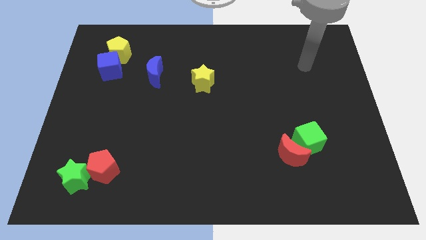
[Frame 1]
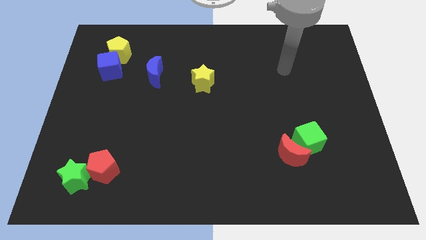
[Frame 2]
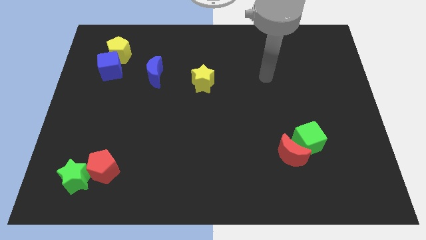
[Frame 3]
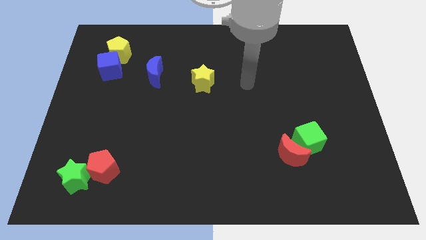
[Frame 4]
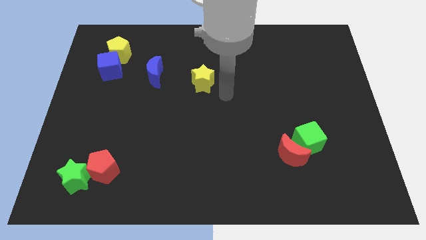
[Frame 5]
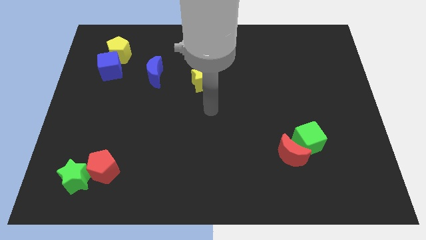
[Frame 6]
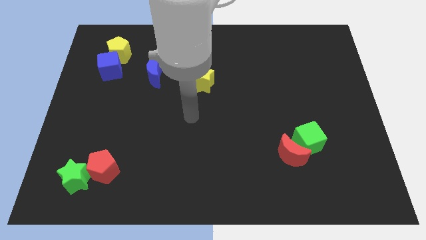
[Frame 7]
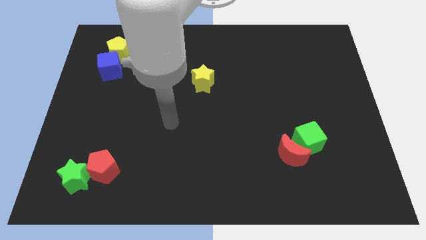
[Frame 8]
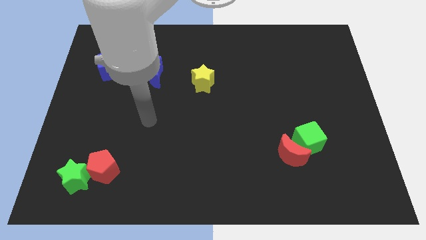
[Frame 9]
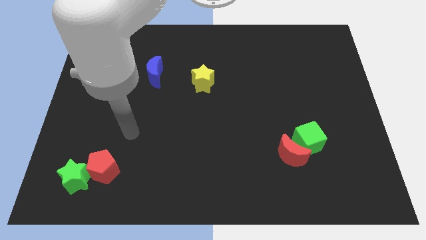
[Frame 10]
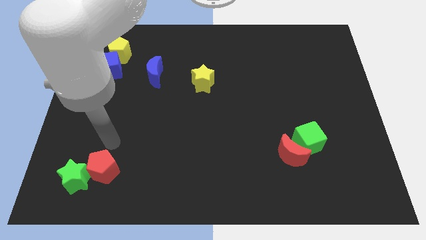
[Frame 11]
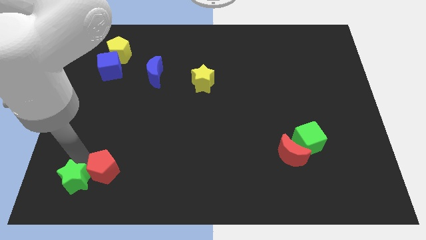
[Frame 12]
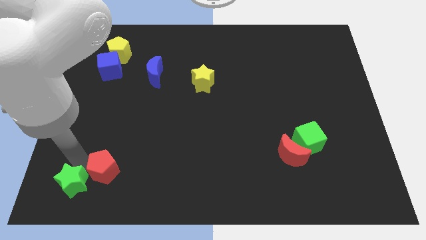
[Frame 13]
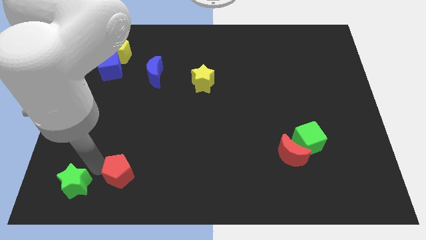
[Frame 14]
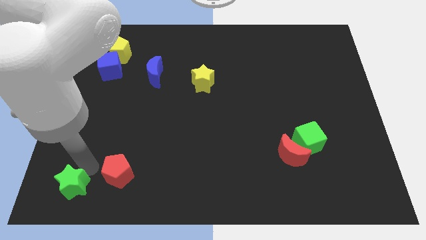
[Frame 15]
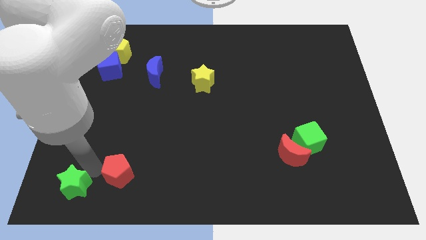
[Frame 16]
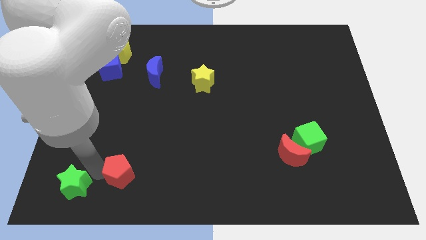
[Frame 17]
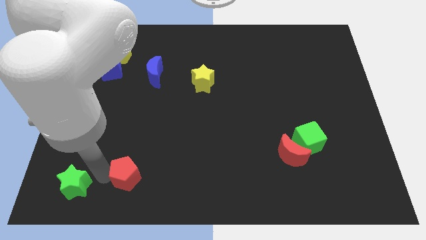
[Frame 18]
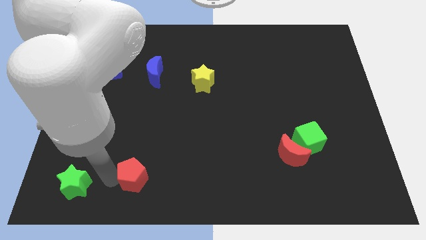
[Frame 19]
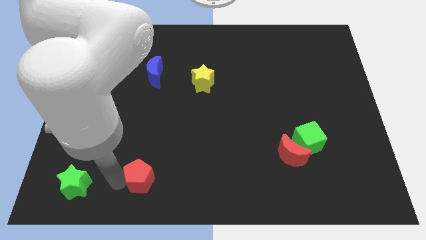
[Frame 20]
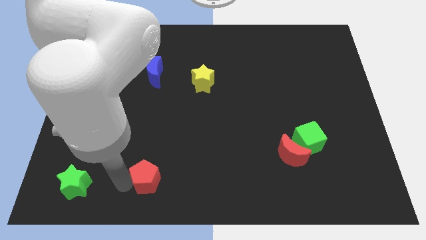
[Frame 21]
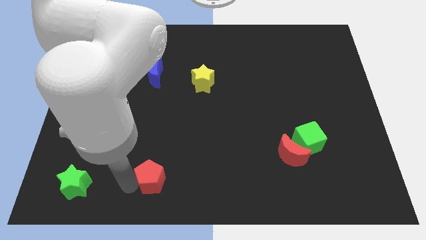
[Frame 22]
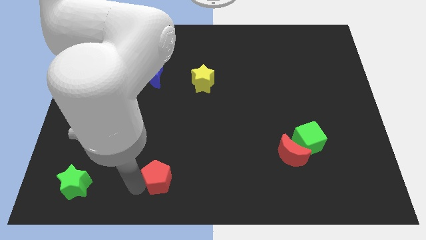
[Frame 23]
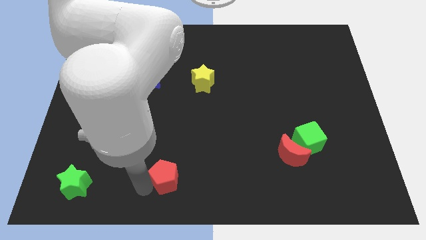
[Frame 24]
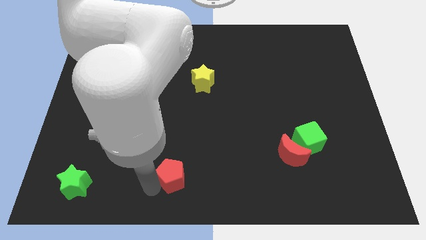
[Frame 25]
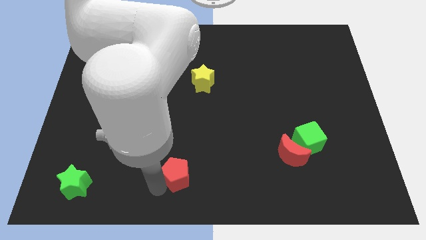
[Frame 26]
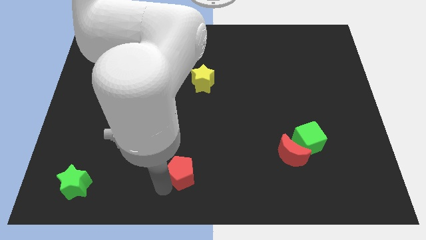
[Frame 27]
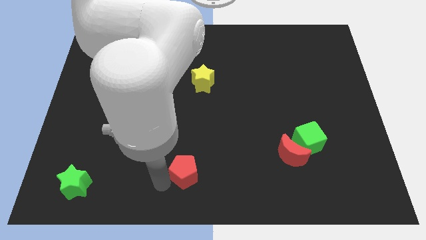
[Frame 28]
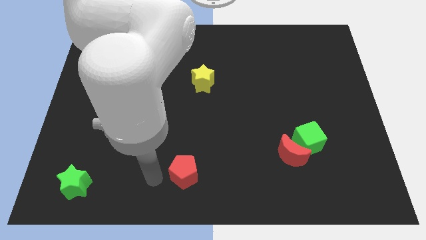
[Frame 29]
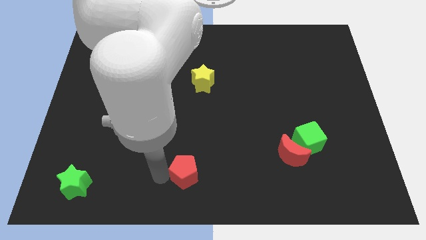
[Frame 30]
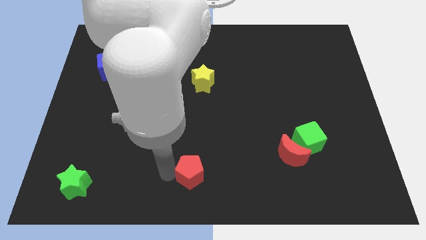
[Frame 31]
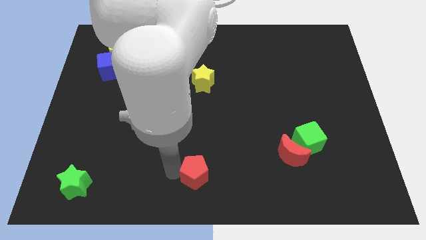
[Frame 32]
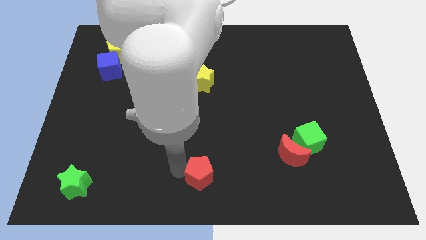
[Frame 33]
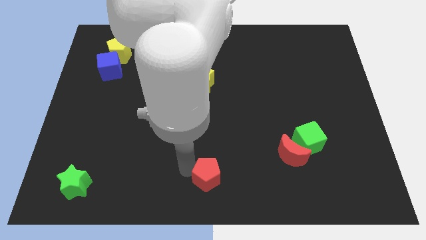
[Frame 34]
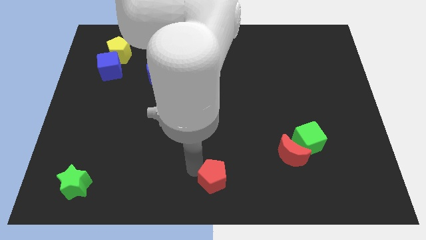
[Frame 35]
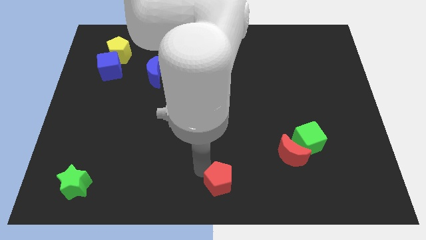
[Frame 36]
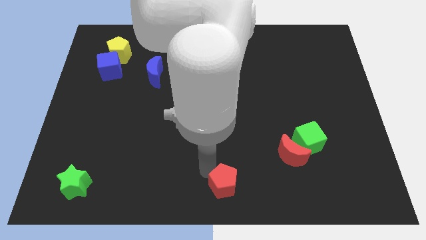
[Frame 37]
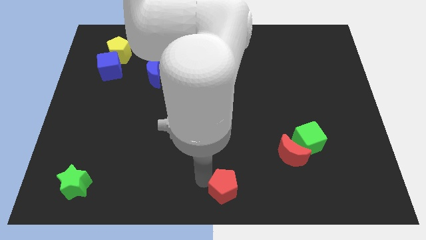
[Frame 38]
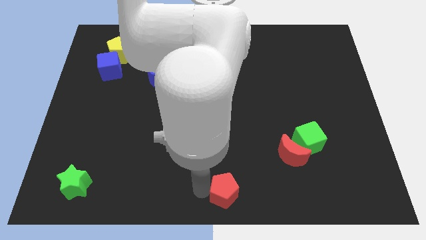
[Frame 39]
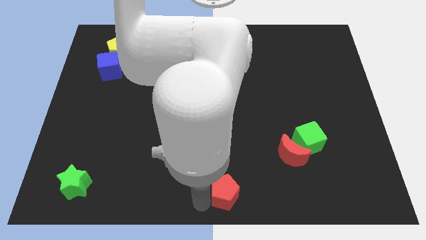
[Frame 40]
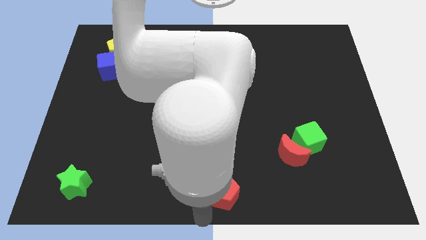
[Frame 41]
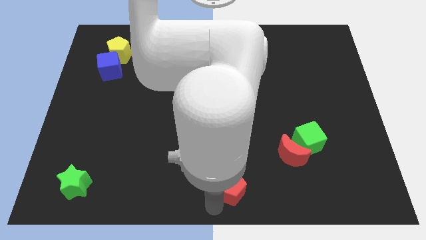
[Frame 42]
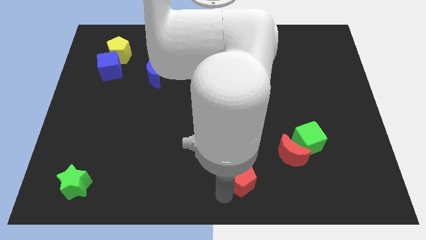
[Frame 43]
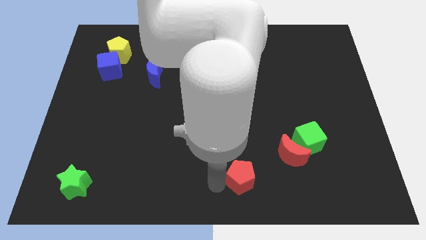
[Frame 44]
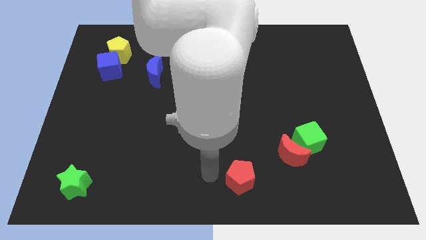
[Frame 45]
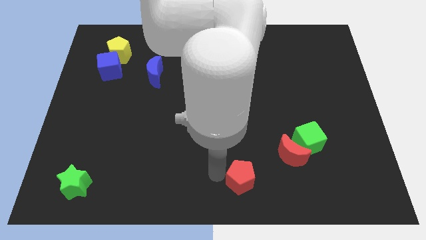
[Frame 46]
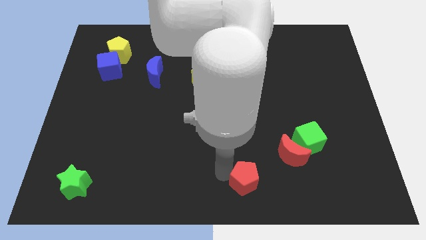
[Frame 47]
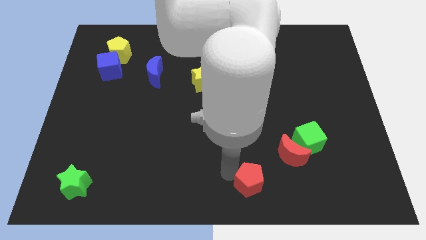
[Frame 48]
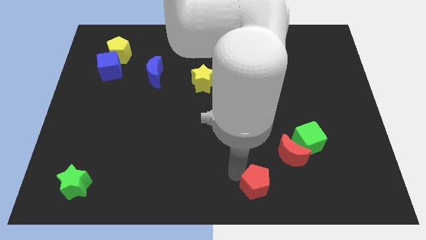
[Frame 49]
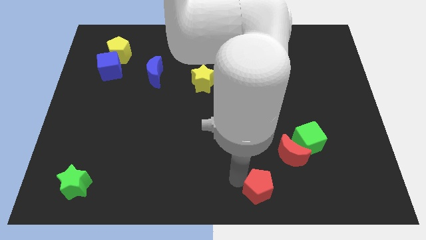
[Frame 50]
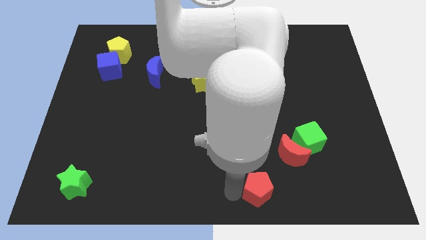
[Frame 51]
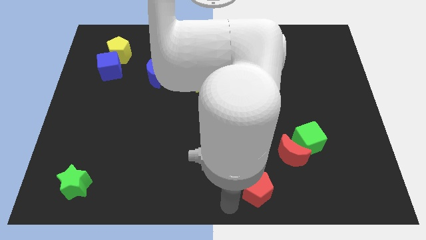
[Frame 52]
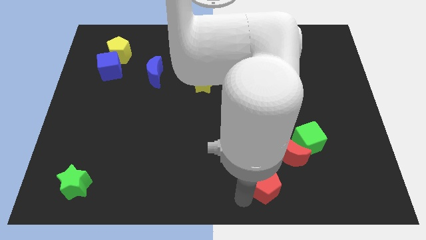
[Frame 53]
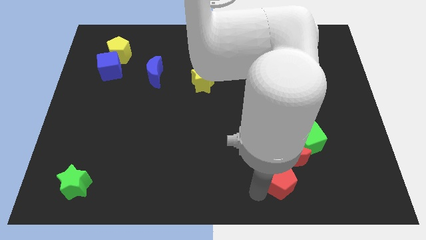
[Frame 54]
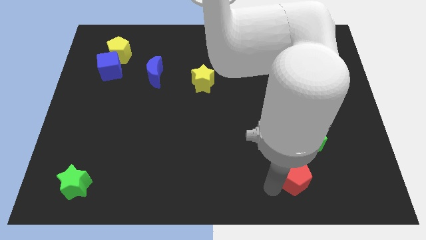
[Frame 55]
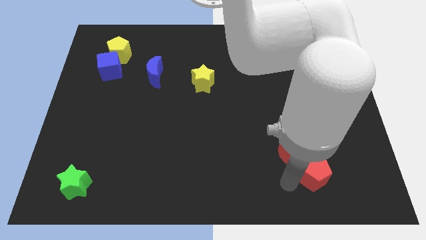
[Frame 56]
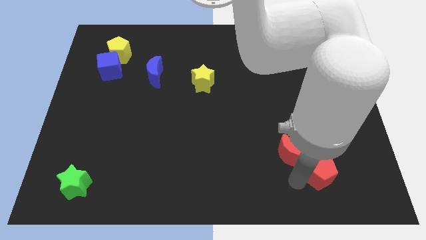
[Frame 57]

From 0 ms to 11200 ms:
push the red pentagon to the bottom right of the green cube

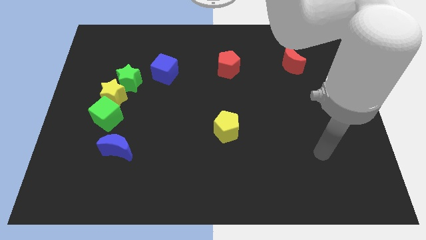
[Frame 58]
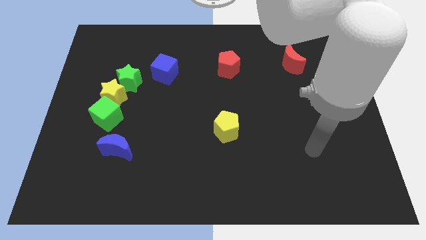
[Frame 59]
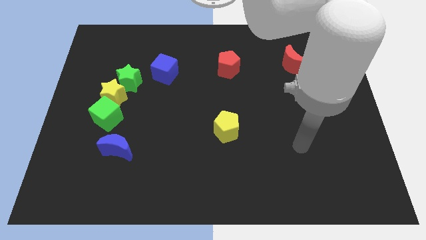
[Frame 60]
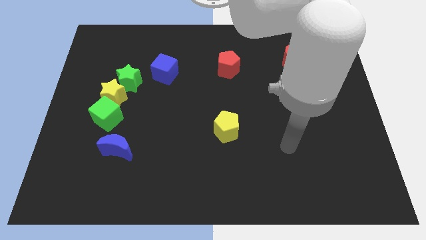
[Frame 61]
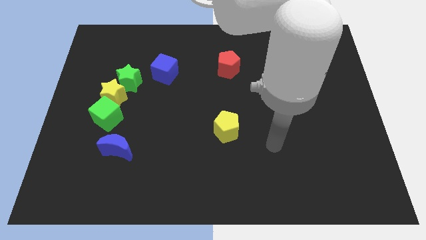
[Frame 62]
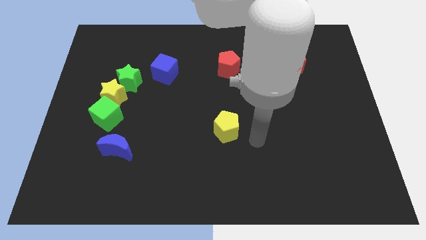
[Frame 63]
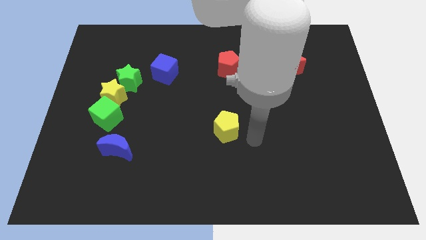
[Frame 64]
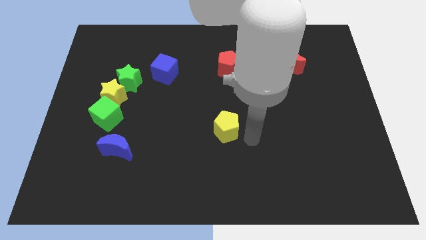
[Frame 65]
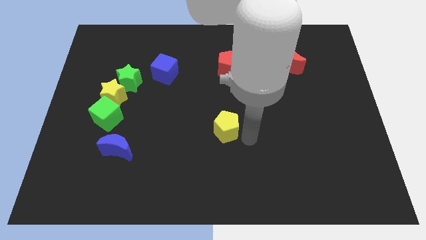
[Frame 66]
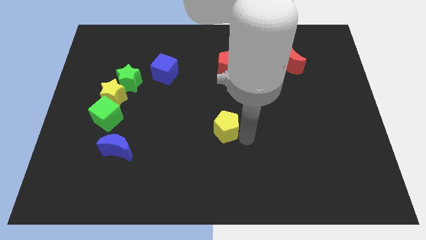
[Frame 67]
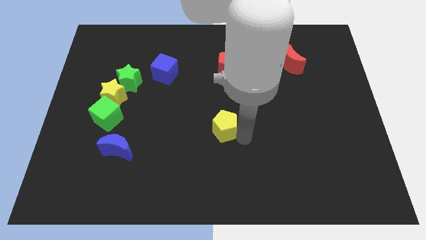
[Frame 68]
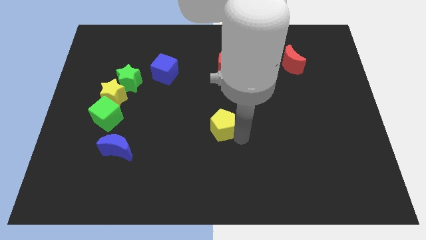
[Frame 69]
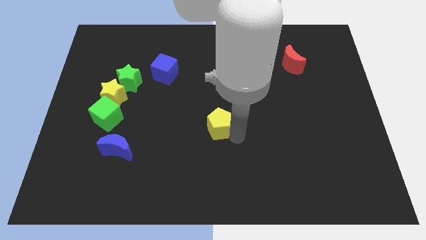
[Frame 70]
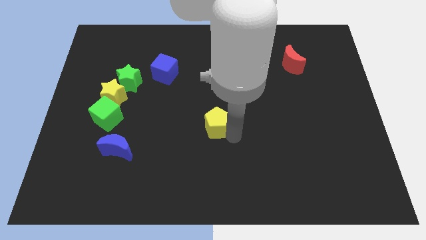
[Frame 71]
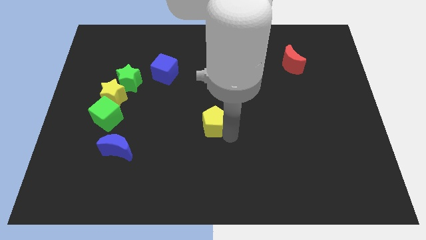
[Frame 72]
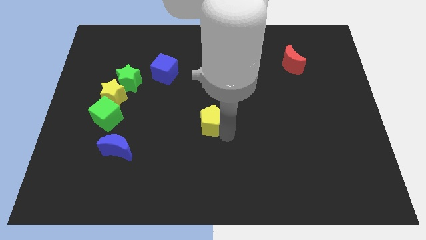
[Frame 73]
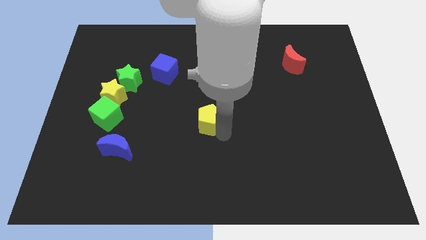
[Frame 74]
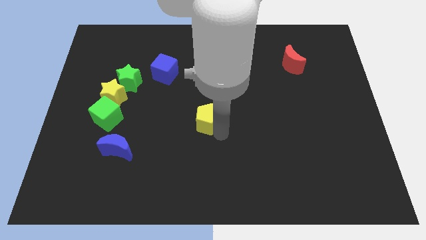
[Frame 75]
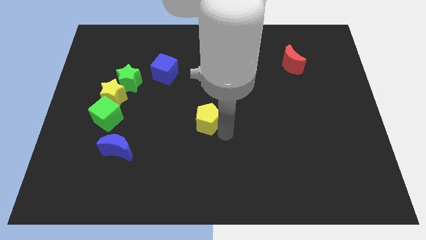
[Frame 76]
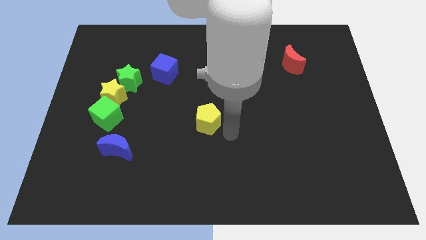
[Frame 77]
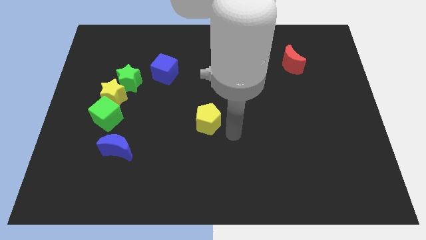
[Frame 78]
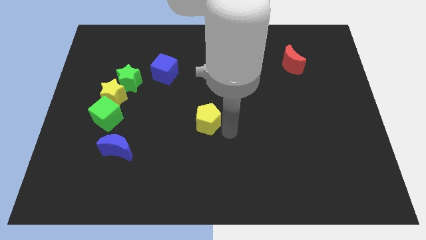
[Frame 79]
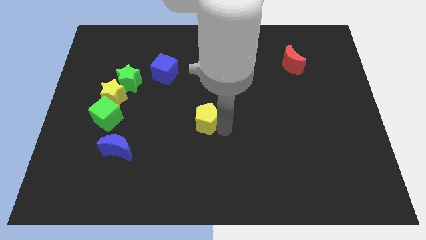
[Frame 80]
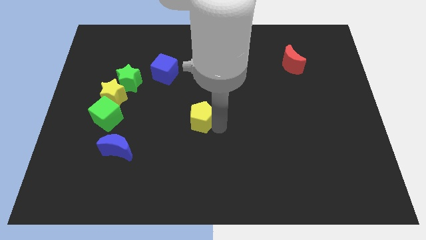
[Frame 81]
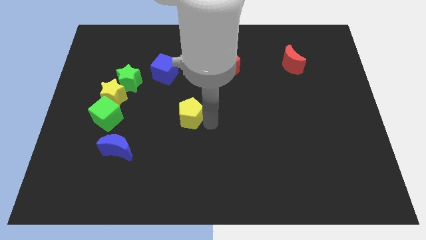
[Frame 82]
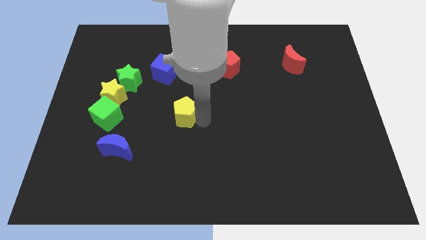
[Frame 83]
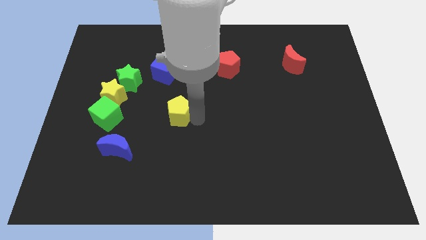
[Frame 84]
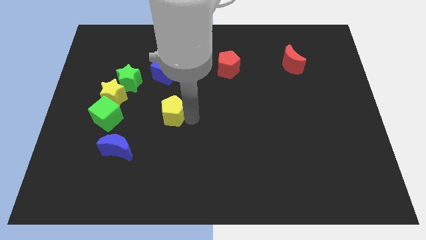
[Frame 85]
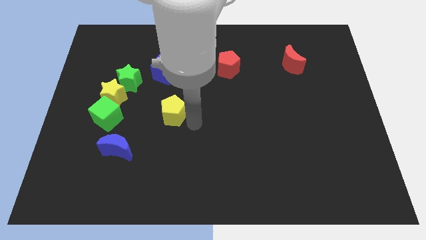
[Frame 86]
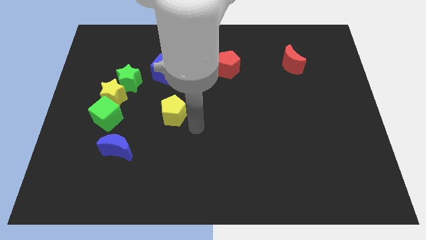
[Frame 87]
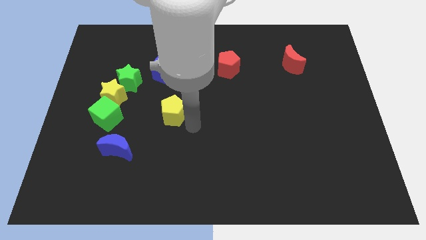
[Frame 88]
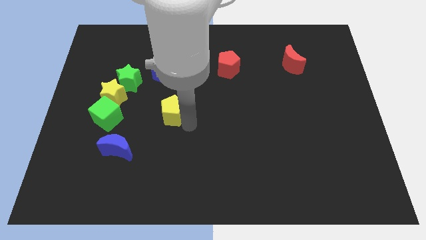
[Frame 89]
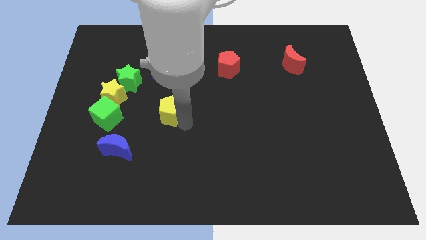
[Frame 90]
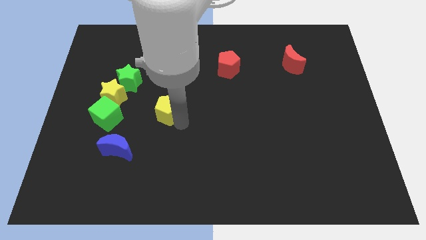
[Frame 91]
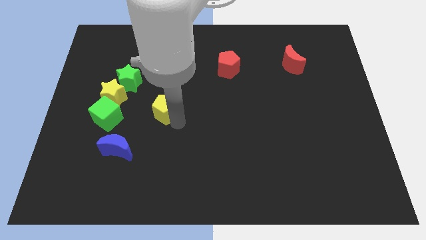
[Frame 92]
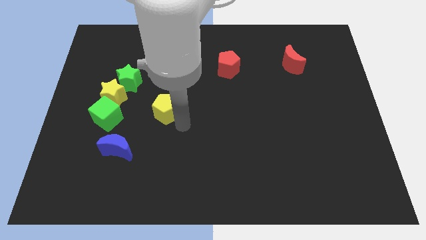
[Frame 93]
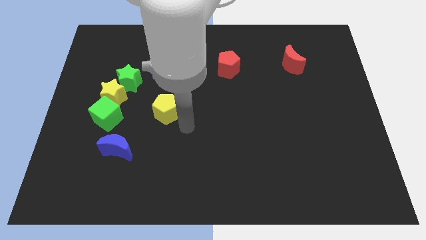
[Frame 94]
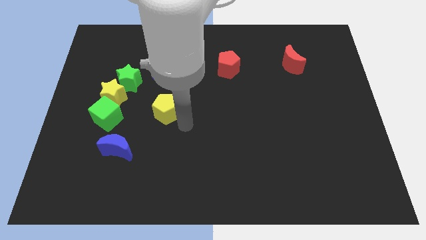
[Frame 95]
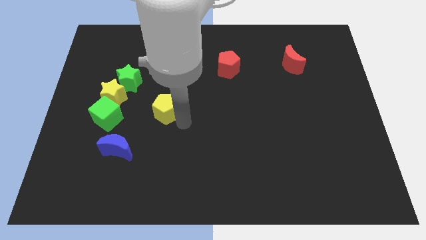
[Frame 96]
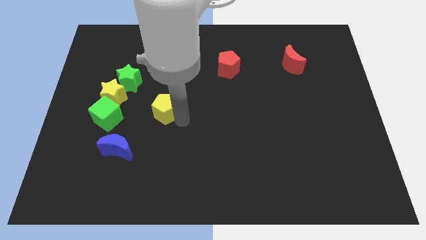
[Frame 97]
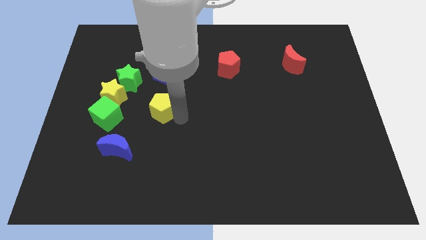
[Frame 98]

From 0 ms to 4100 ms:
put the yellow pentagon to the bottom right side of the green star
